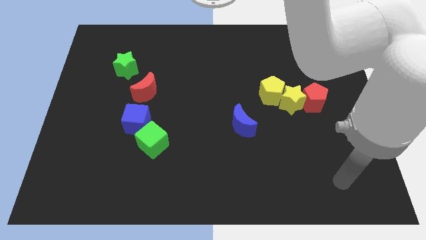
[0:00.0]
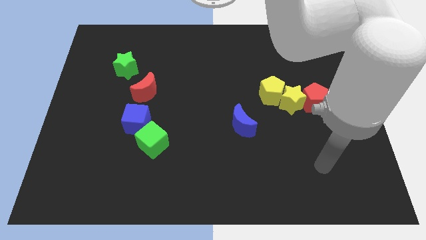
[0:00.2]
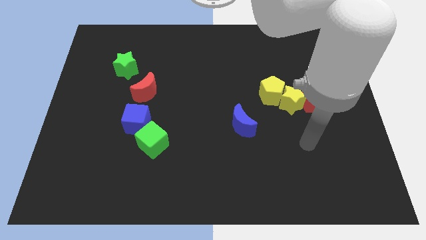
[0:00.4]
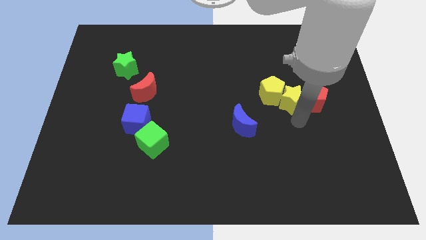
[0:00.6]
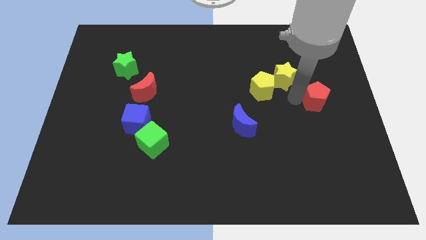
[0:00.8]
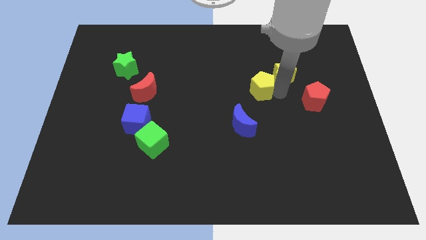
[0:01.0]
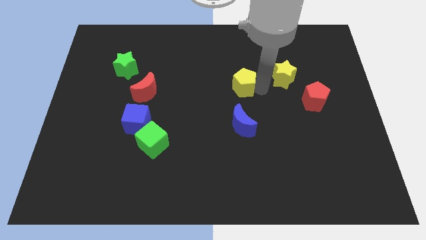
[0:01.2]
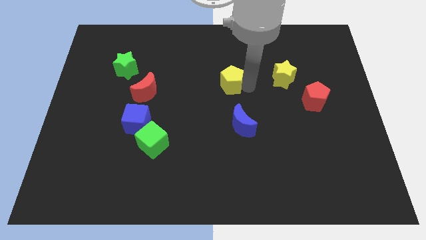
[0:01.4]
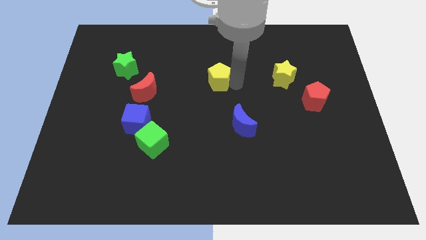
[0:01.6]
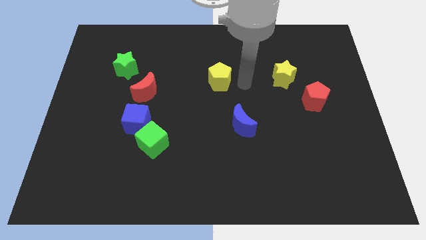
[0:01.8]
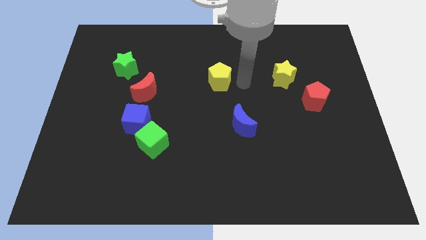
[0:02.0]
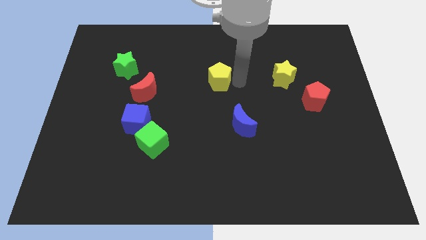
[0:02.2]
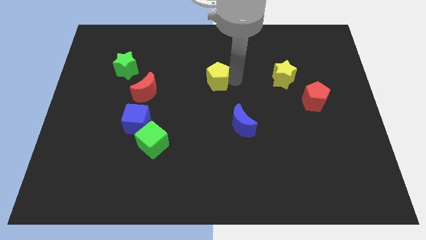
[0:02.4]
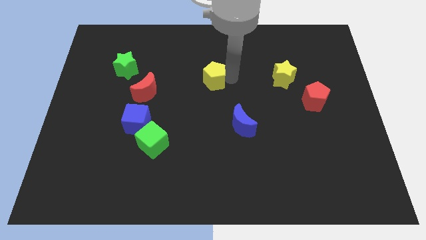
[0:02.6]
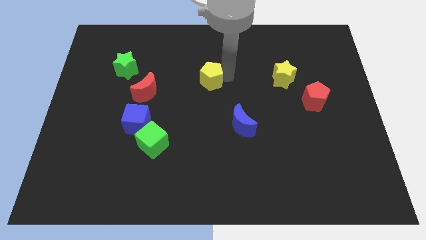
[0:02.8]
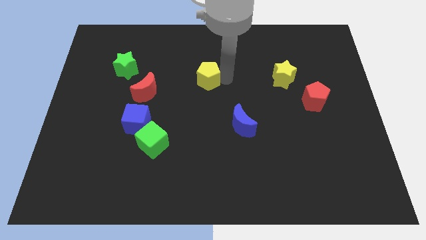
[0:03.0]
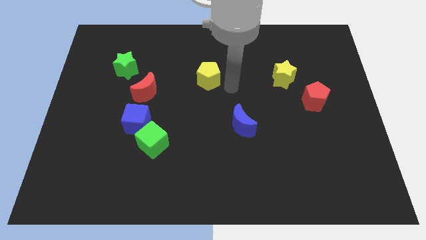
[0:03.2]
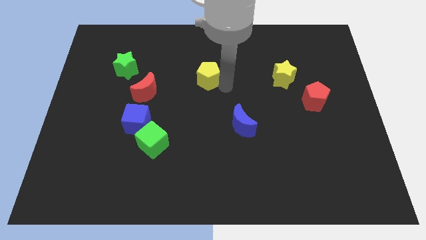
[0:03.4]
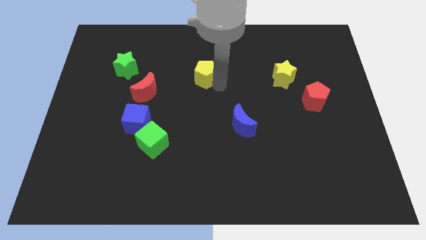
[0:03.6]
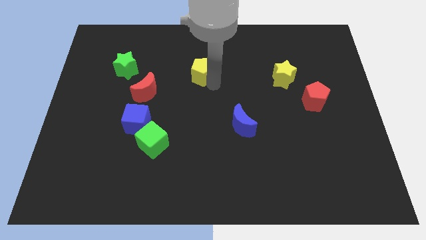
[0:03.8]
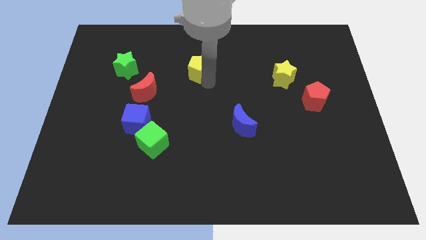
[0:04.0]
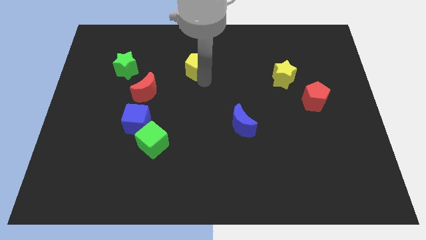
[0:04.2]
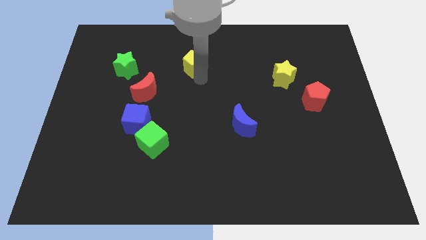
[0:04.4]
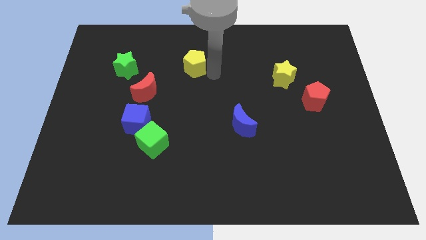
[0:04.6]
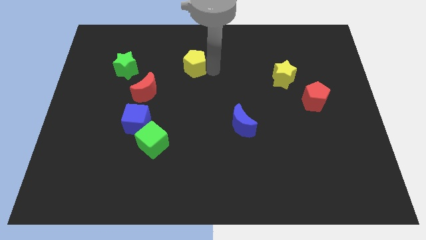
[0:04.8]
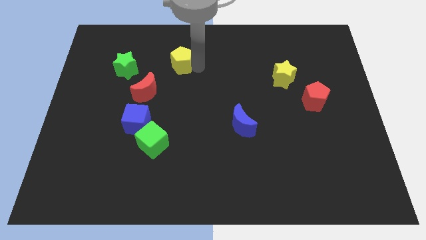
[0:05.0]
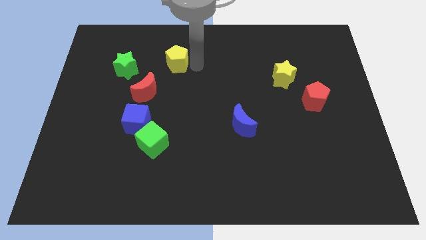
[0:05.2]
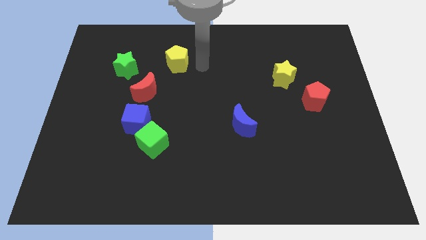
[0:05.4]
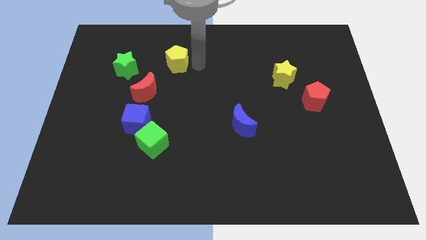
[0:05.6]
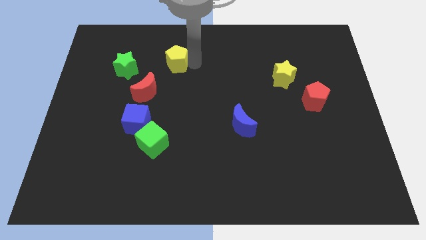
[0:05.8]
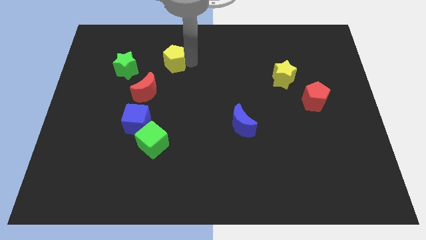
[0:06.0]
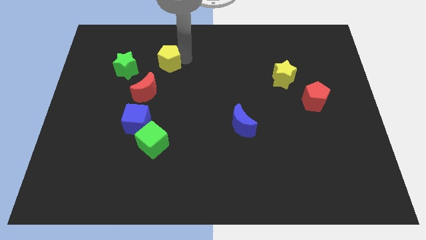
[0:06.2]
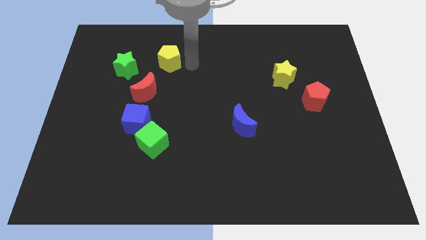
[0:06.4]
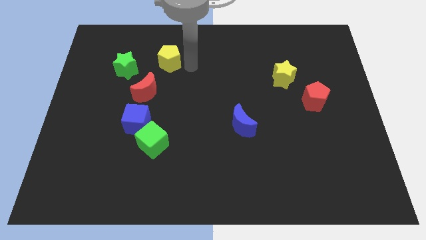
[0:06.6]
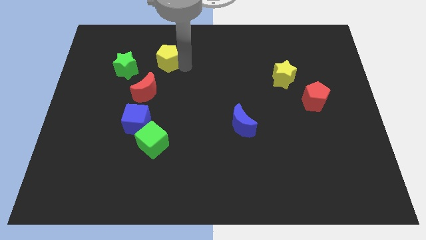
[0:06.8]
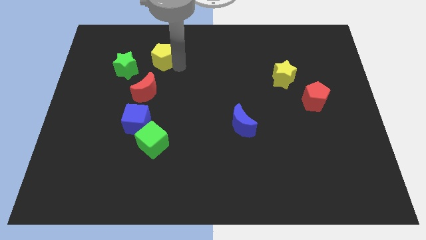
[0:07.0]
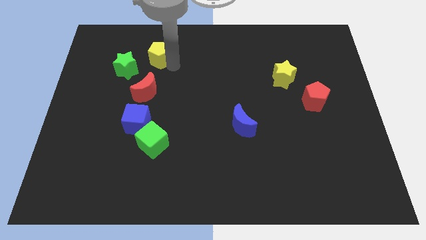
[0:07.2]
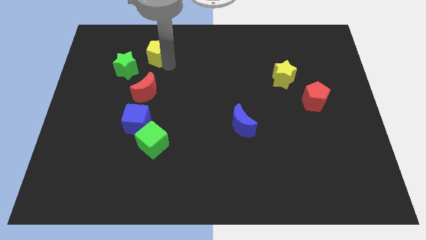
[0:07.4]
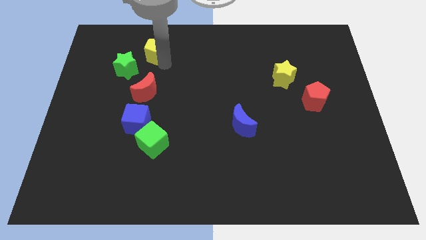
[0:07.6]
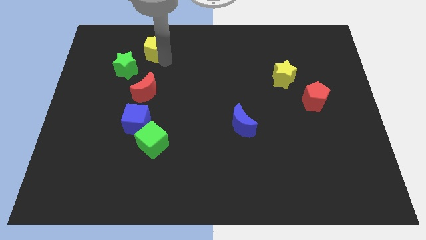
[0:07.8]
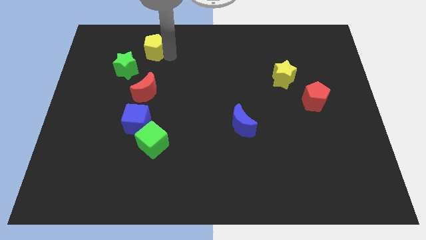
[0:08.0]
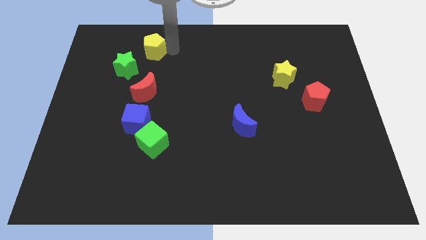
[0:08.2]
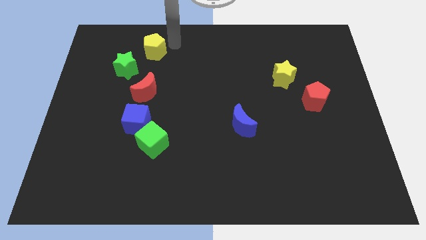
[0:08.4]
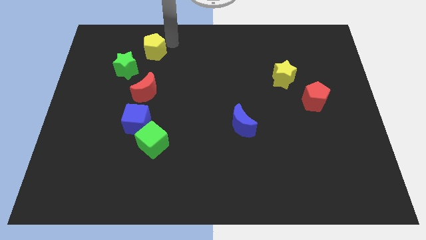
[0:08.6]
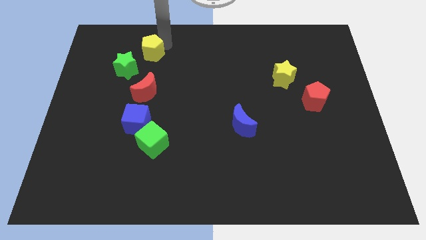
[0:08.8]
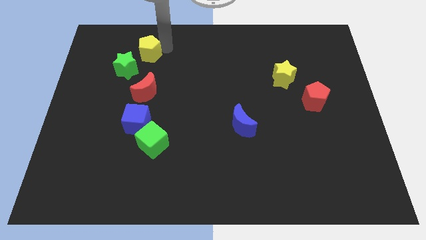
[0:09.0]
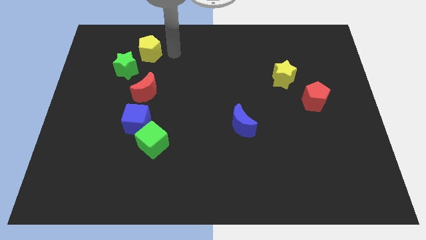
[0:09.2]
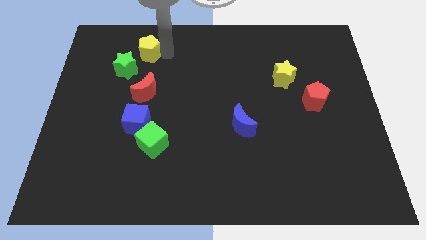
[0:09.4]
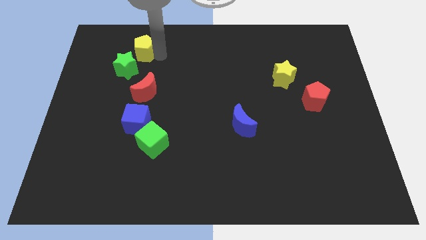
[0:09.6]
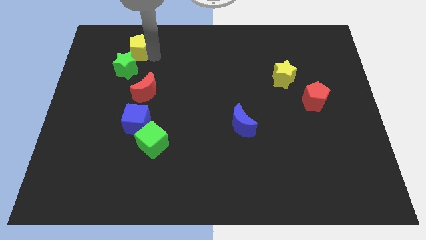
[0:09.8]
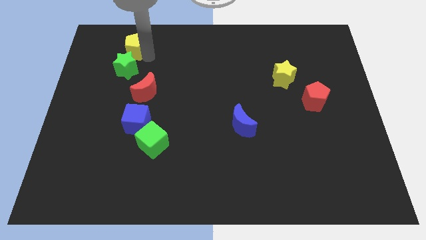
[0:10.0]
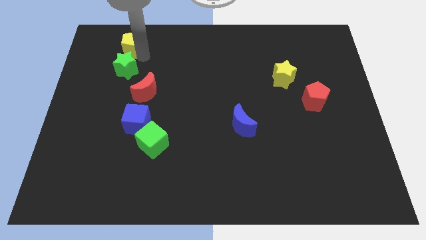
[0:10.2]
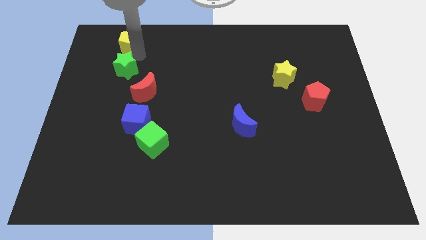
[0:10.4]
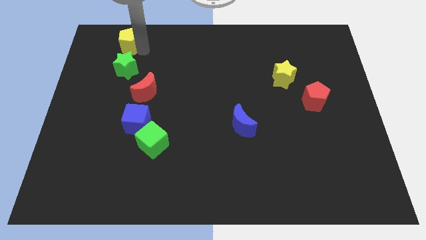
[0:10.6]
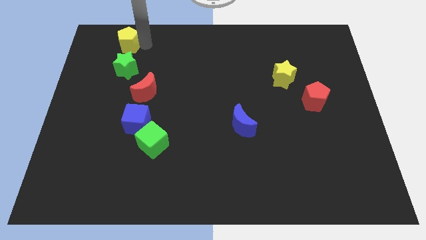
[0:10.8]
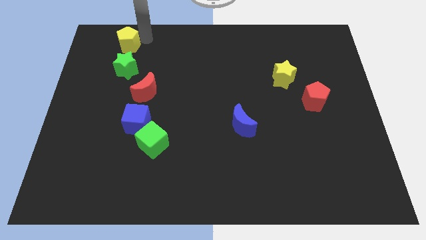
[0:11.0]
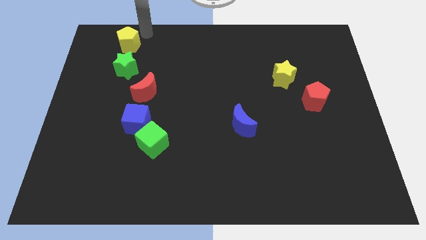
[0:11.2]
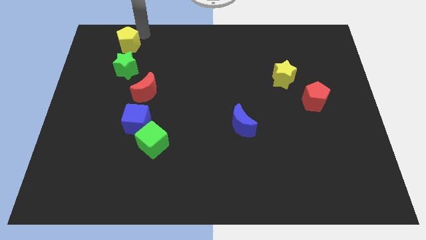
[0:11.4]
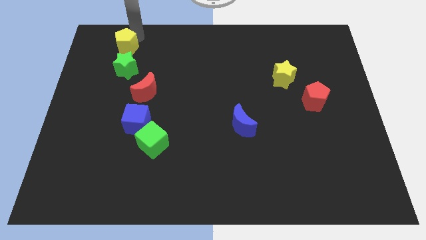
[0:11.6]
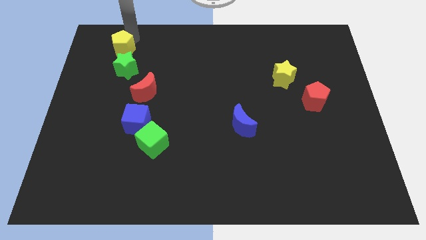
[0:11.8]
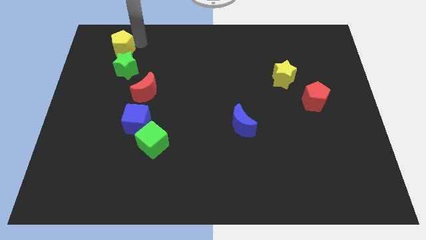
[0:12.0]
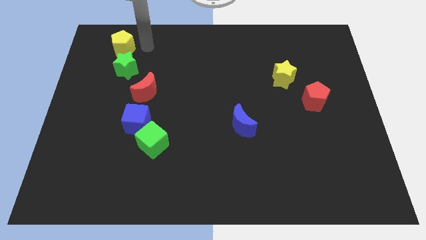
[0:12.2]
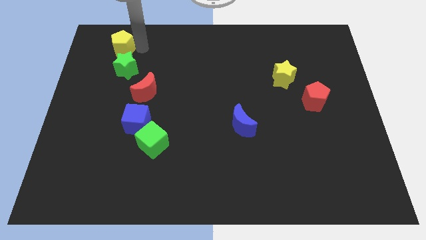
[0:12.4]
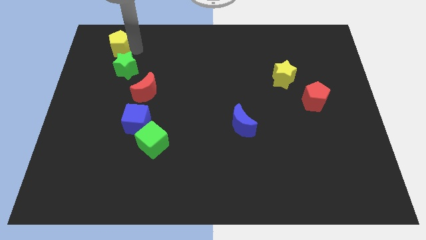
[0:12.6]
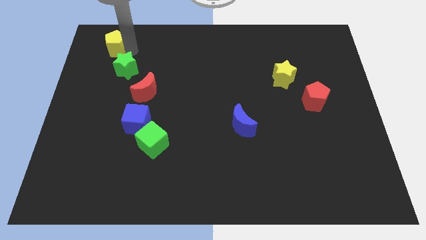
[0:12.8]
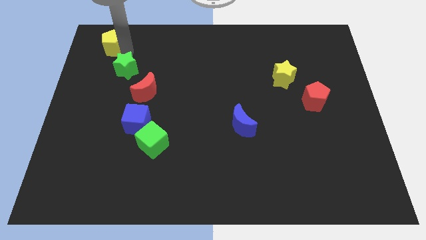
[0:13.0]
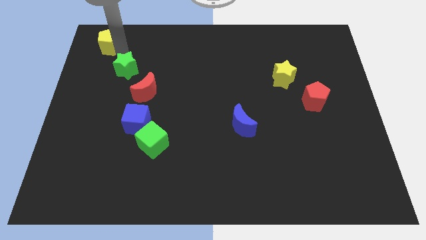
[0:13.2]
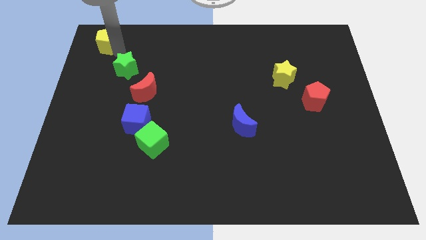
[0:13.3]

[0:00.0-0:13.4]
push the yellow pentagon to the top left
